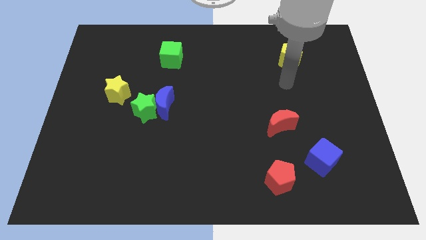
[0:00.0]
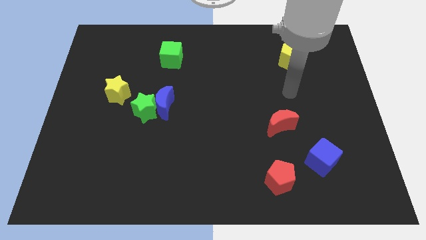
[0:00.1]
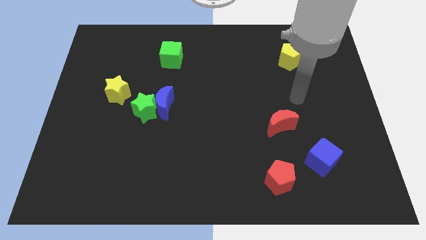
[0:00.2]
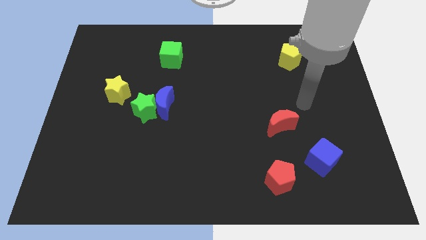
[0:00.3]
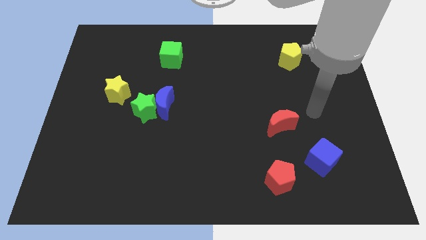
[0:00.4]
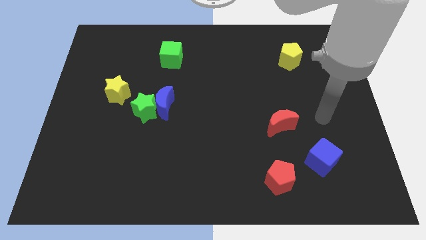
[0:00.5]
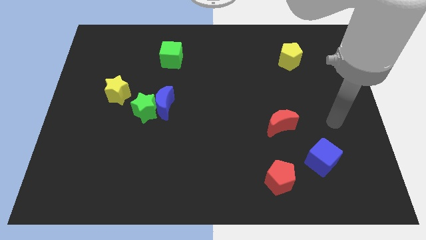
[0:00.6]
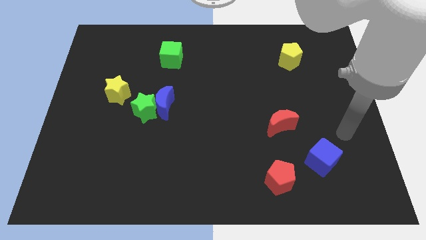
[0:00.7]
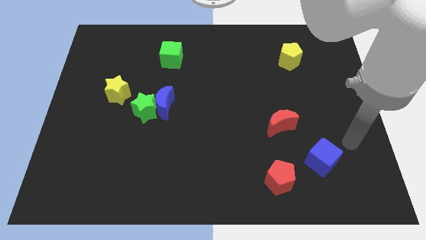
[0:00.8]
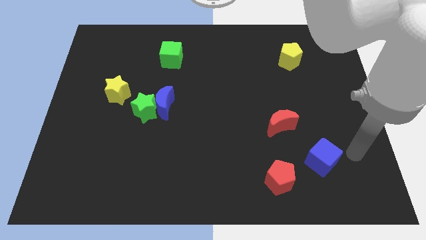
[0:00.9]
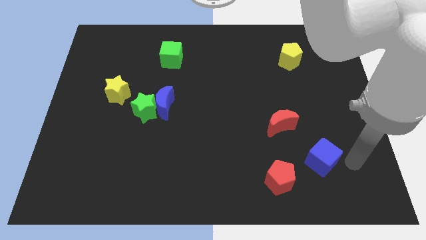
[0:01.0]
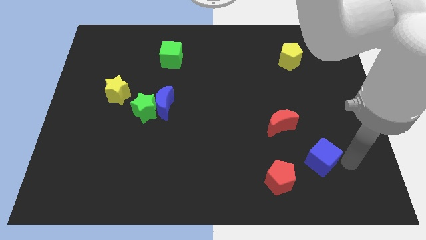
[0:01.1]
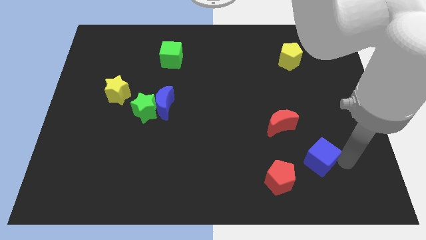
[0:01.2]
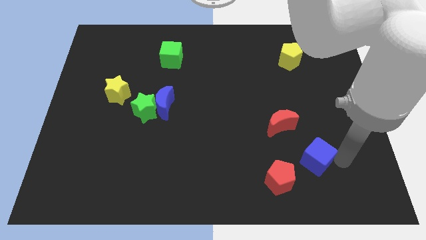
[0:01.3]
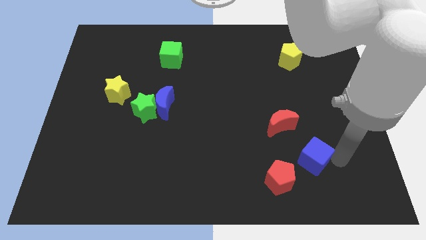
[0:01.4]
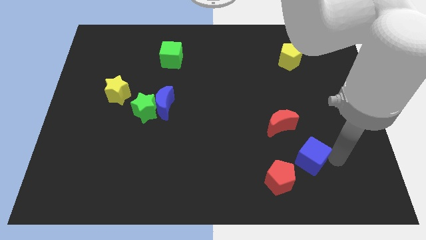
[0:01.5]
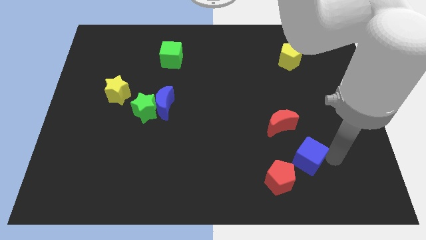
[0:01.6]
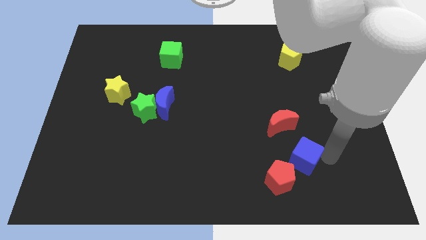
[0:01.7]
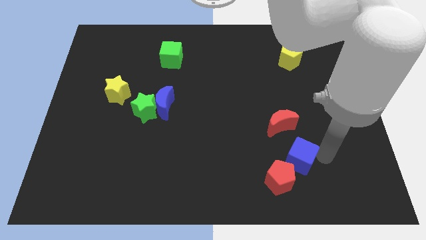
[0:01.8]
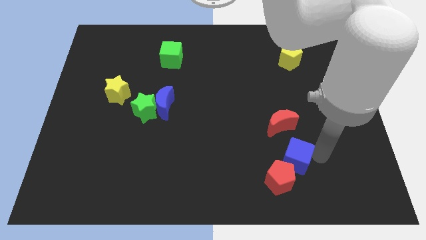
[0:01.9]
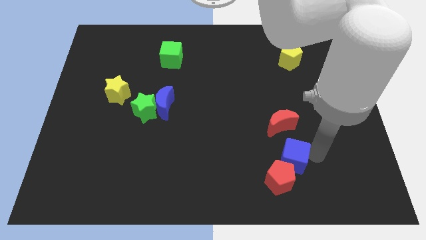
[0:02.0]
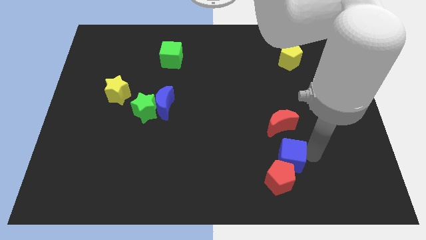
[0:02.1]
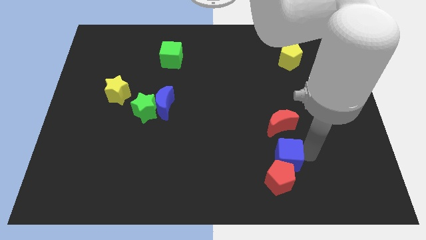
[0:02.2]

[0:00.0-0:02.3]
slide the blue cube to the left a little bit

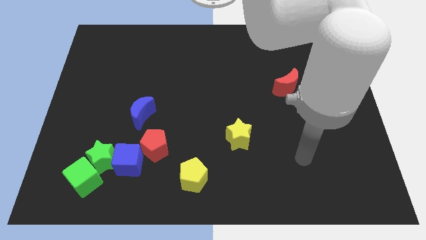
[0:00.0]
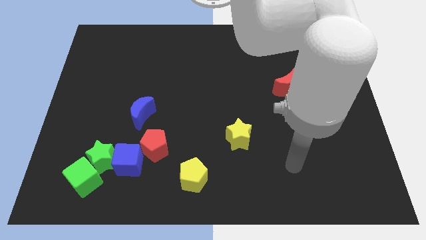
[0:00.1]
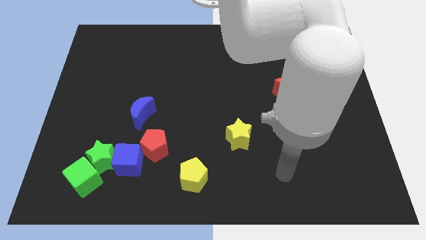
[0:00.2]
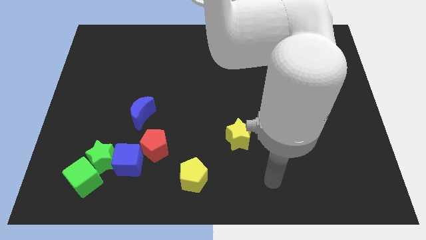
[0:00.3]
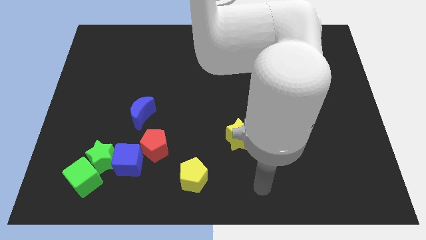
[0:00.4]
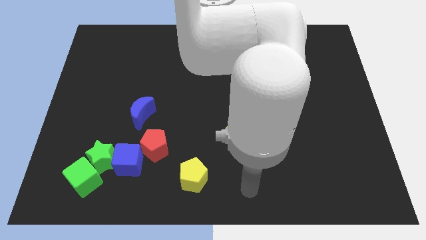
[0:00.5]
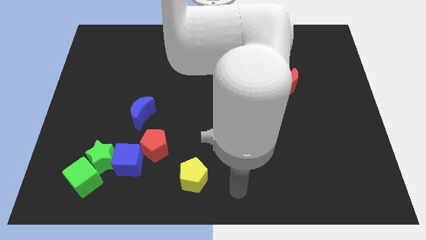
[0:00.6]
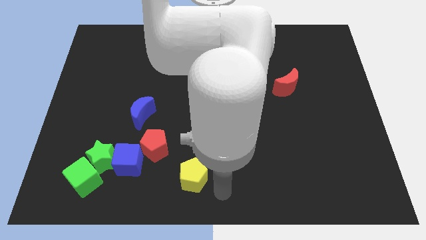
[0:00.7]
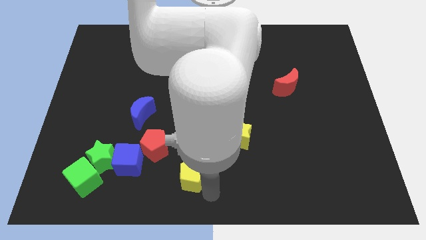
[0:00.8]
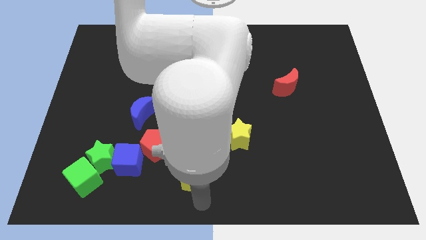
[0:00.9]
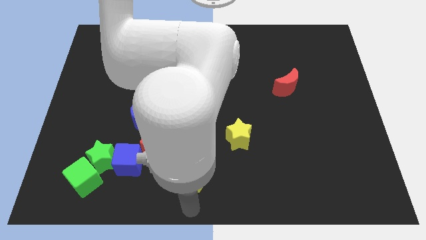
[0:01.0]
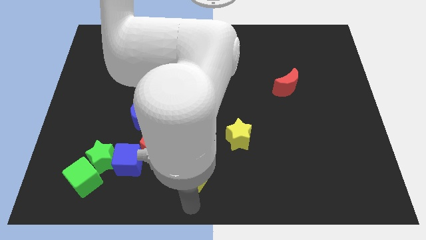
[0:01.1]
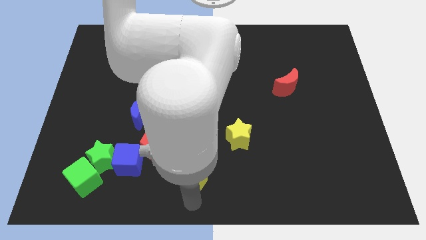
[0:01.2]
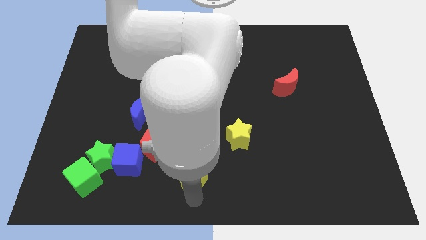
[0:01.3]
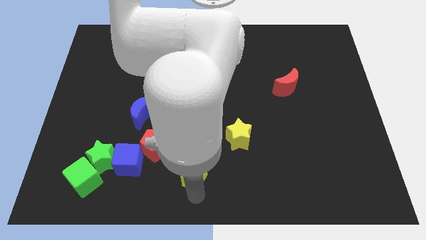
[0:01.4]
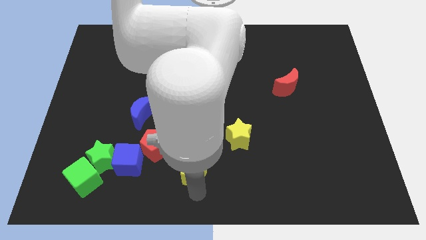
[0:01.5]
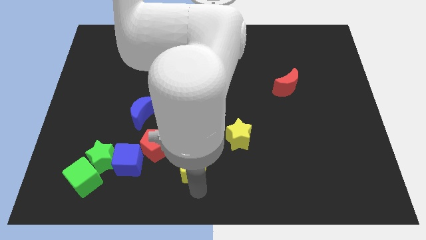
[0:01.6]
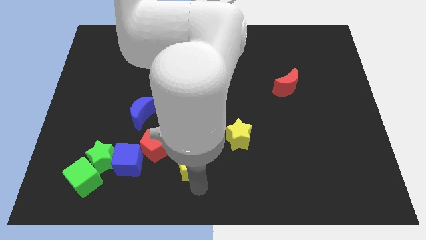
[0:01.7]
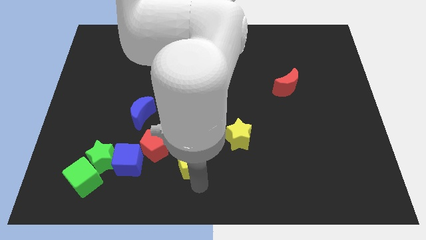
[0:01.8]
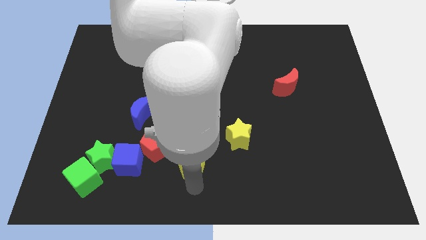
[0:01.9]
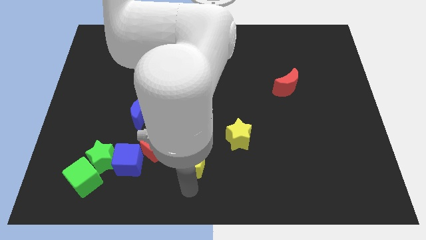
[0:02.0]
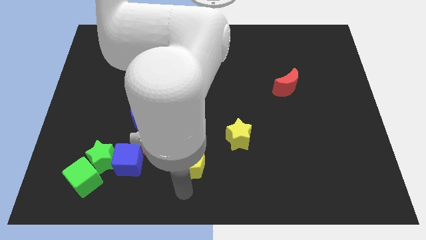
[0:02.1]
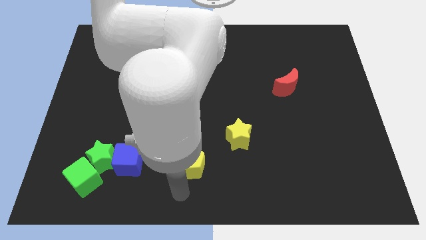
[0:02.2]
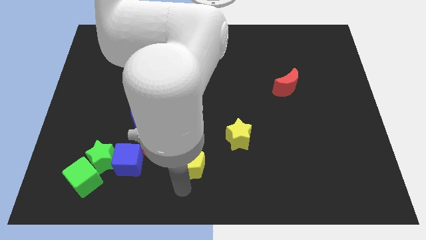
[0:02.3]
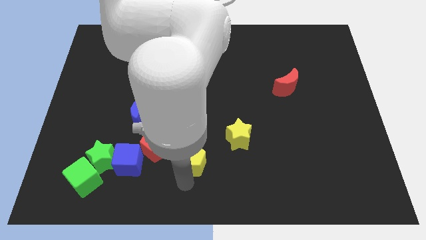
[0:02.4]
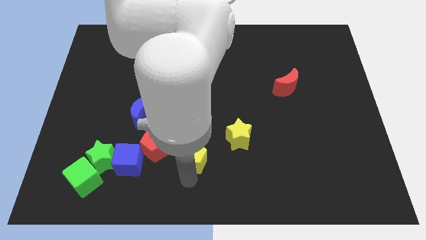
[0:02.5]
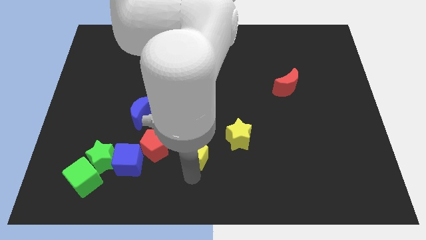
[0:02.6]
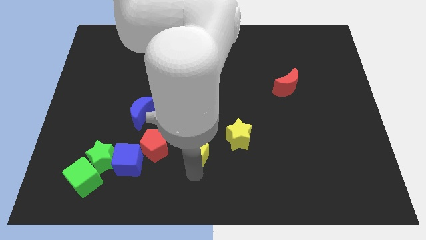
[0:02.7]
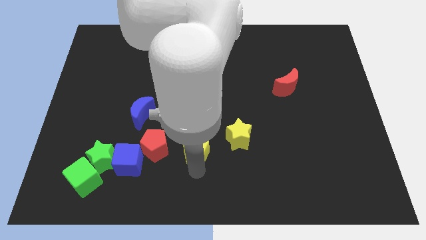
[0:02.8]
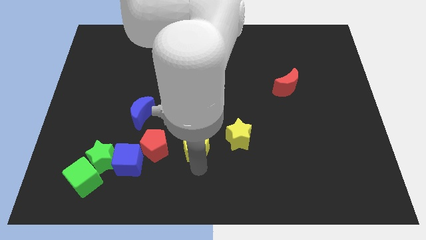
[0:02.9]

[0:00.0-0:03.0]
move the yellow pentagon a bit up

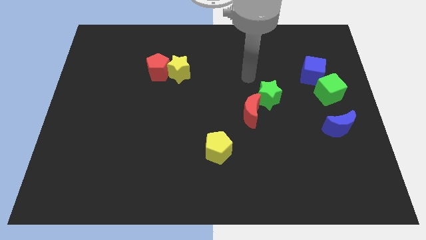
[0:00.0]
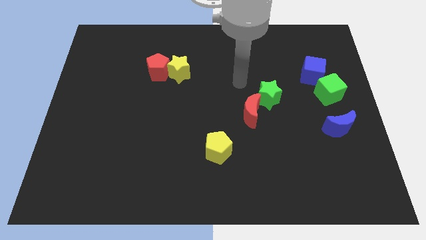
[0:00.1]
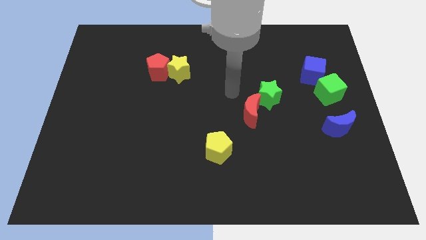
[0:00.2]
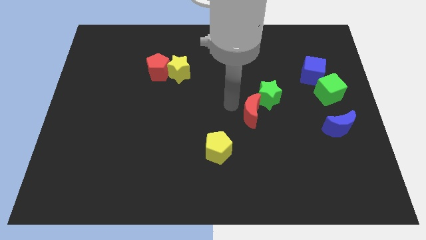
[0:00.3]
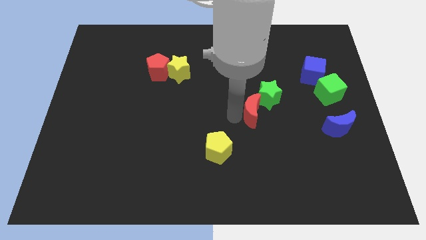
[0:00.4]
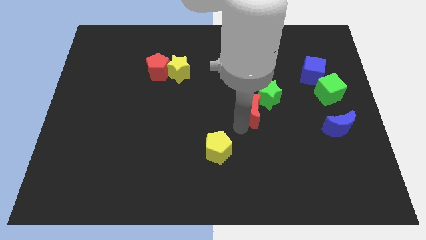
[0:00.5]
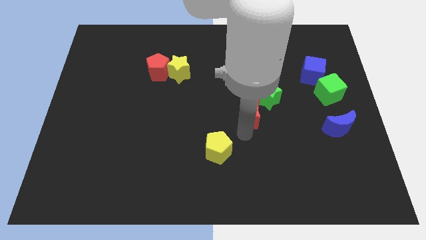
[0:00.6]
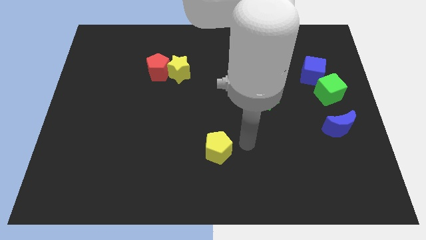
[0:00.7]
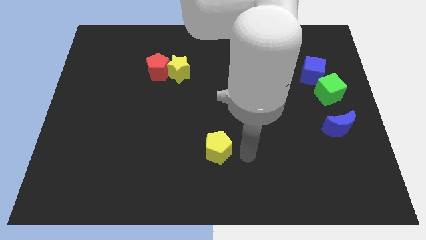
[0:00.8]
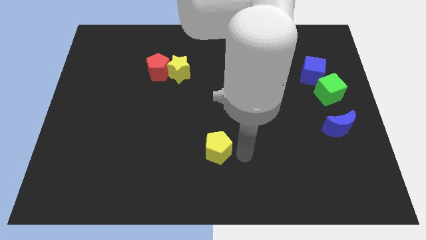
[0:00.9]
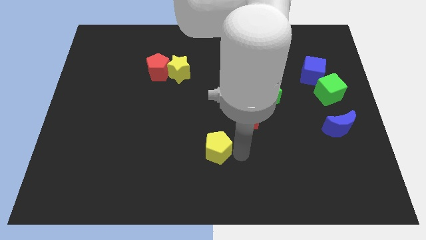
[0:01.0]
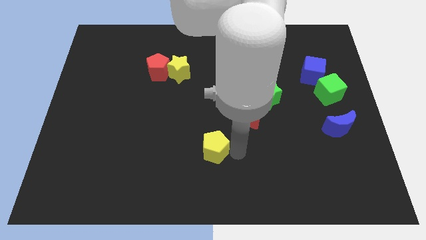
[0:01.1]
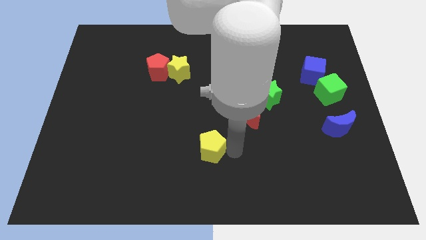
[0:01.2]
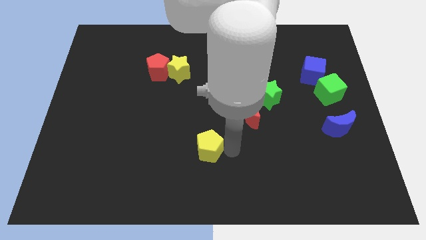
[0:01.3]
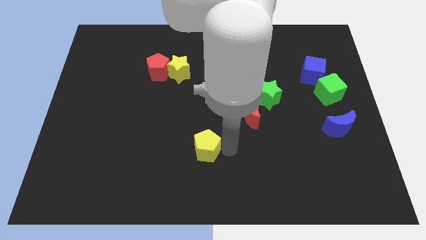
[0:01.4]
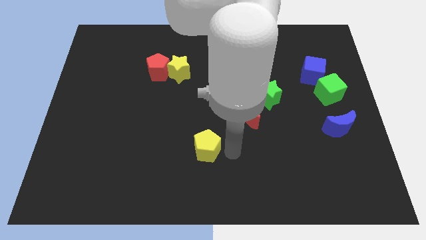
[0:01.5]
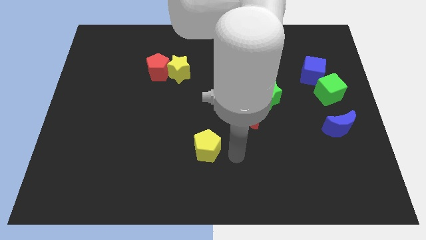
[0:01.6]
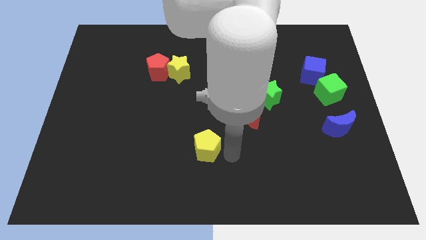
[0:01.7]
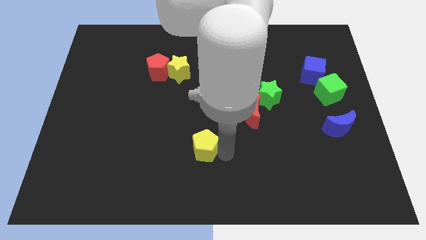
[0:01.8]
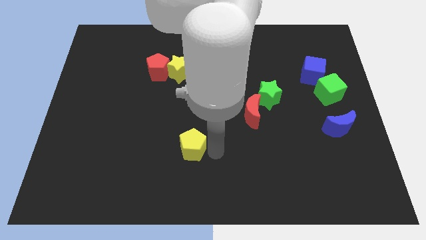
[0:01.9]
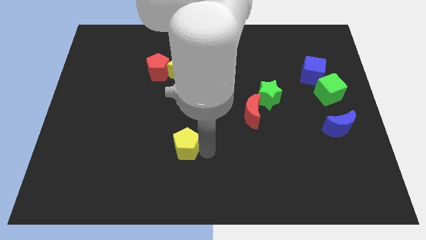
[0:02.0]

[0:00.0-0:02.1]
slide the yellow pentagon a little bit left

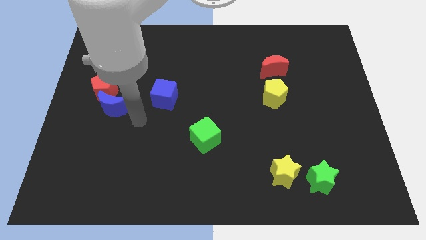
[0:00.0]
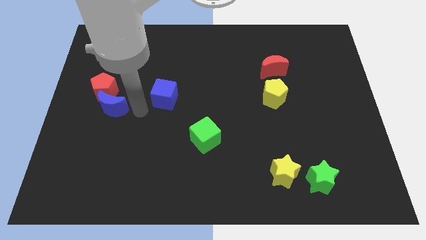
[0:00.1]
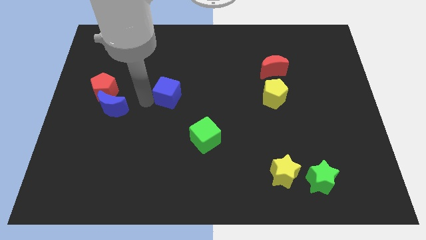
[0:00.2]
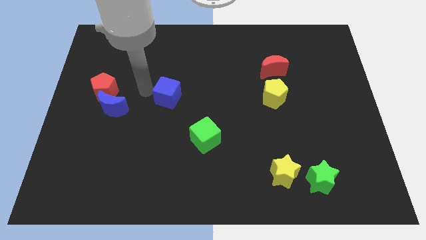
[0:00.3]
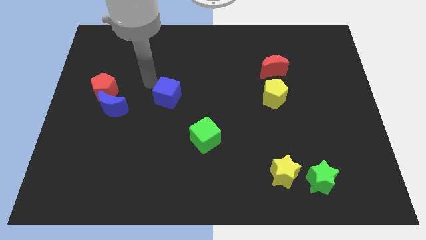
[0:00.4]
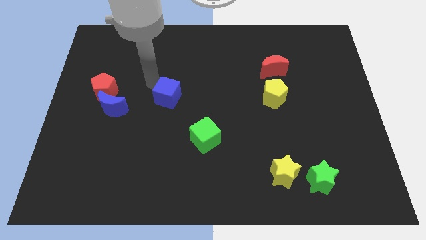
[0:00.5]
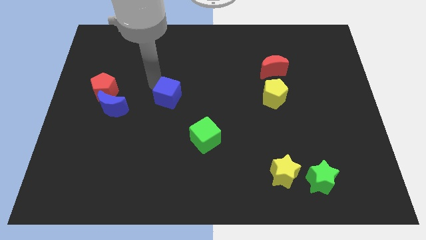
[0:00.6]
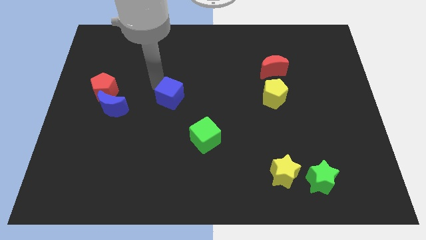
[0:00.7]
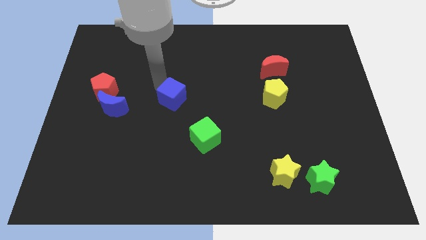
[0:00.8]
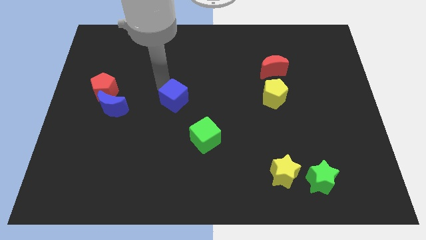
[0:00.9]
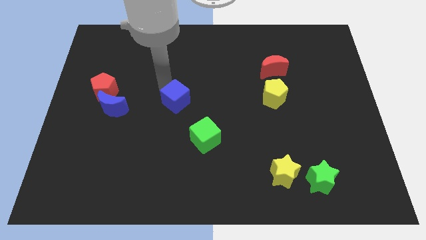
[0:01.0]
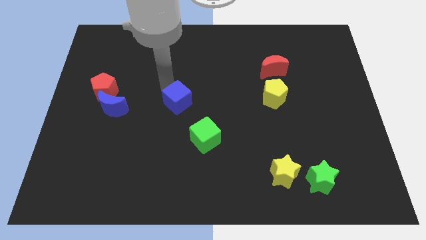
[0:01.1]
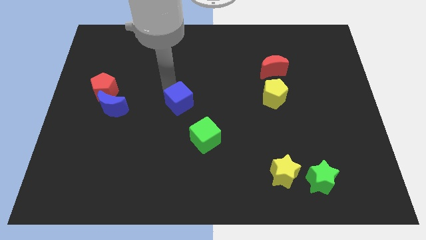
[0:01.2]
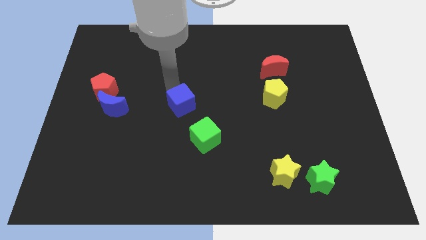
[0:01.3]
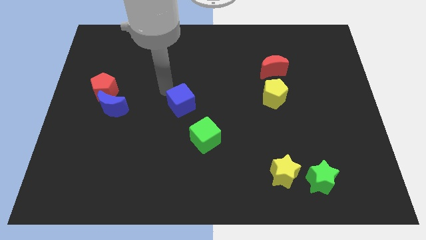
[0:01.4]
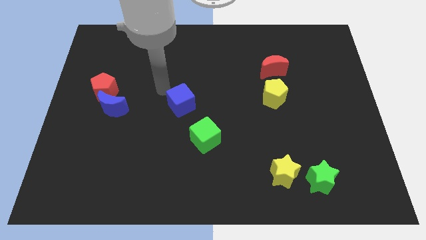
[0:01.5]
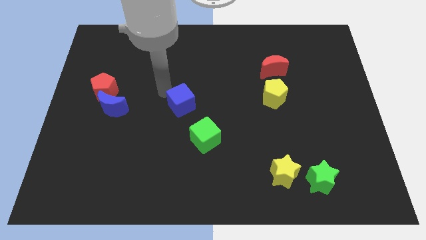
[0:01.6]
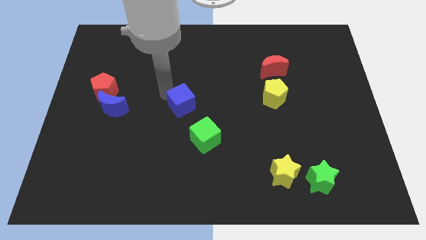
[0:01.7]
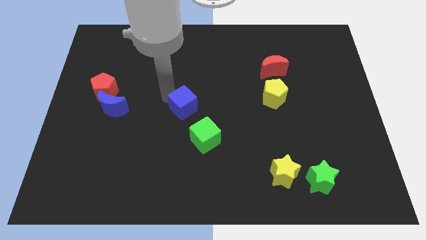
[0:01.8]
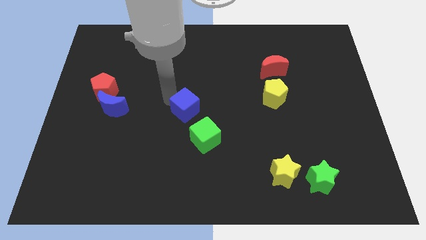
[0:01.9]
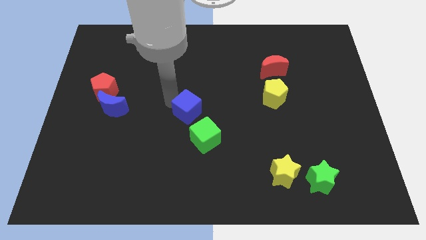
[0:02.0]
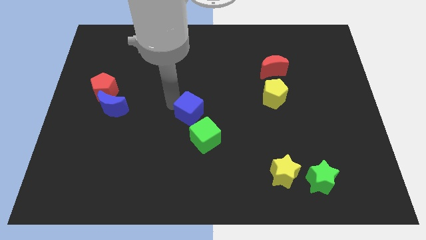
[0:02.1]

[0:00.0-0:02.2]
move the blue cube a little downwards and then to the right
